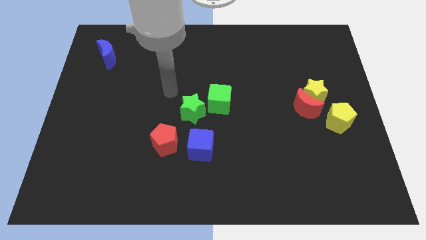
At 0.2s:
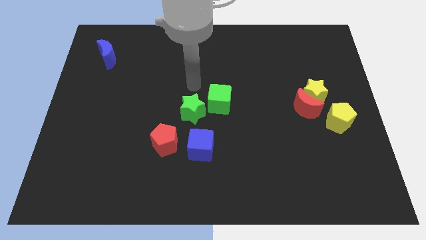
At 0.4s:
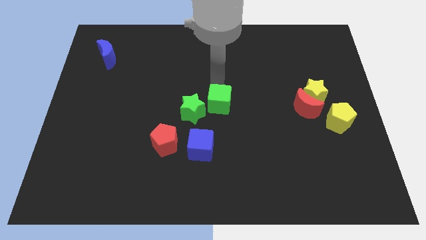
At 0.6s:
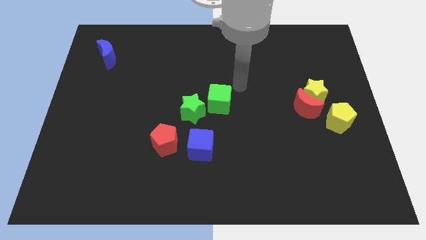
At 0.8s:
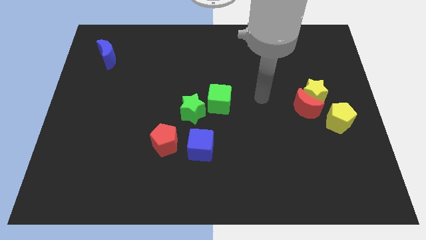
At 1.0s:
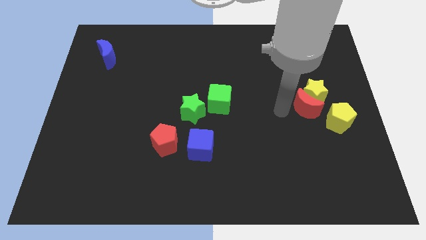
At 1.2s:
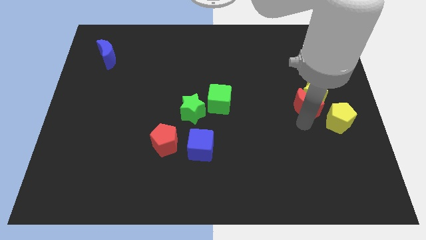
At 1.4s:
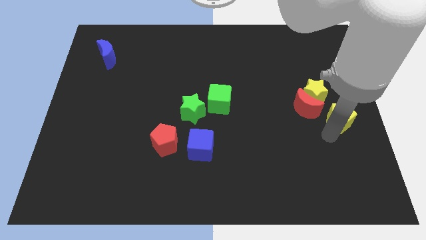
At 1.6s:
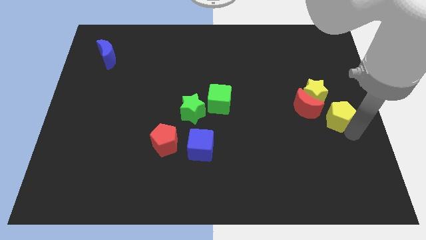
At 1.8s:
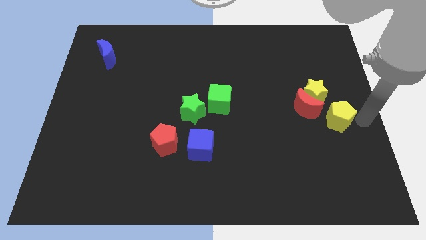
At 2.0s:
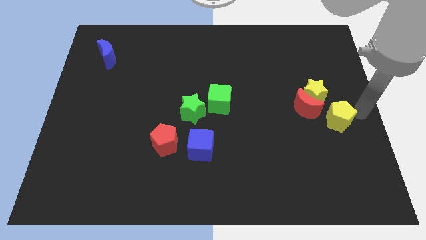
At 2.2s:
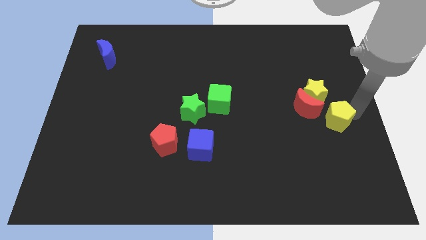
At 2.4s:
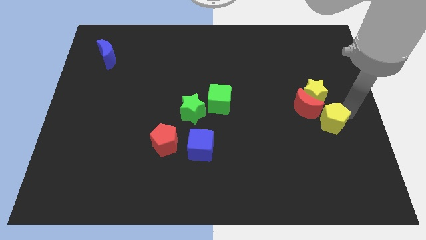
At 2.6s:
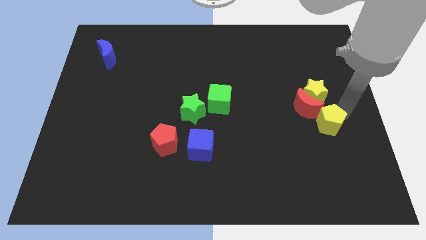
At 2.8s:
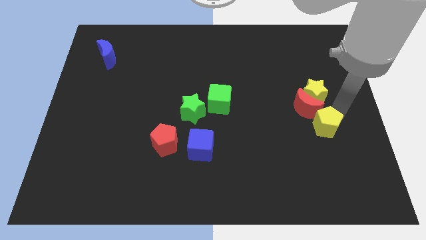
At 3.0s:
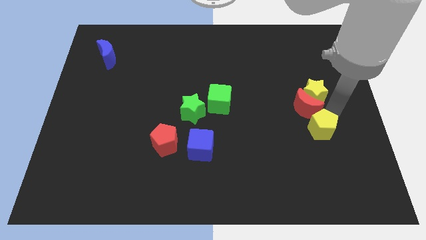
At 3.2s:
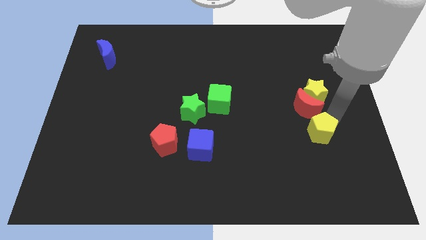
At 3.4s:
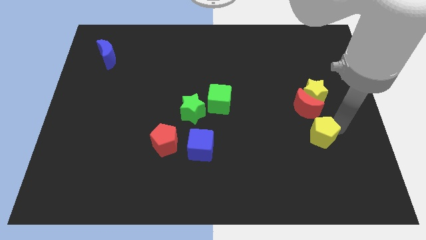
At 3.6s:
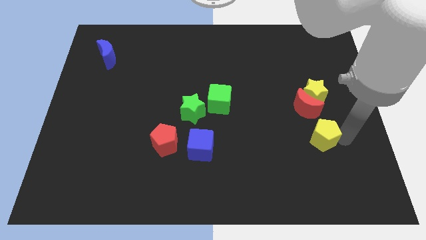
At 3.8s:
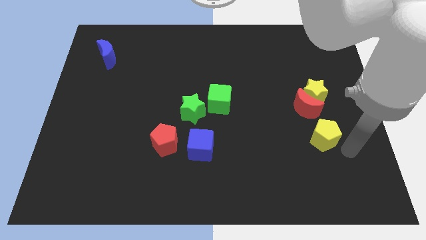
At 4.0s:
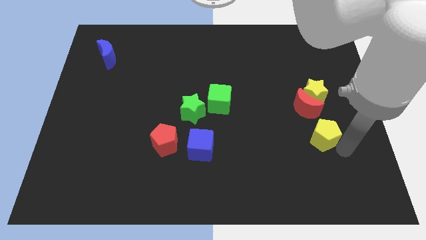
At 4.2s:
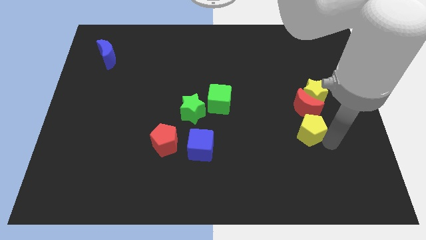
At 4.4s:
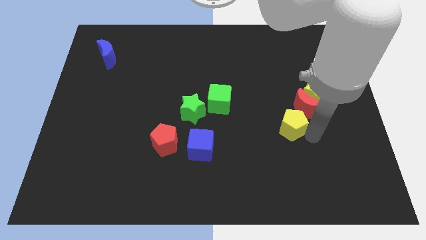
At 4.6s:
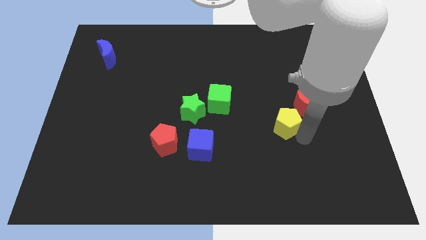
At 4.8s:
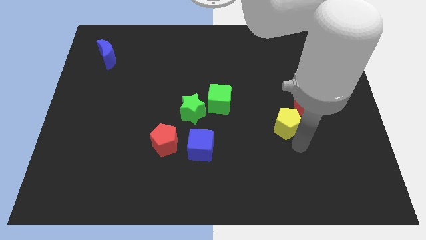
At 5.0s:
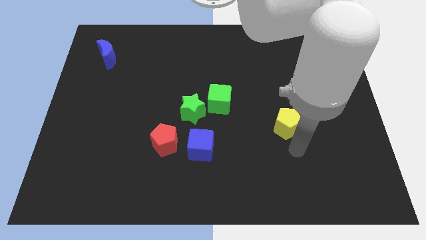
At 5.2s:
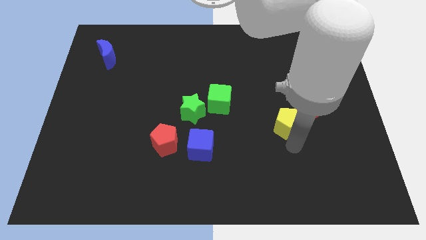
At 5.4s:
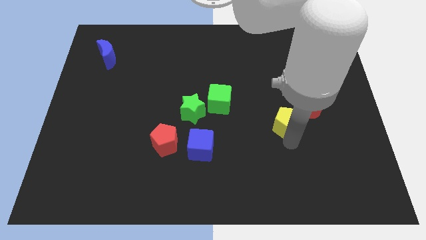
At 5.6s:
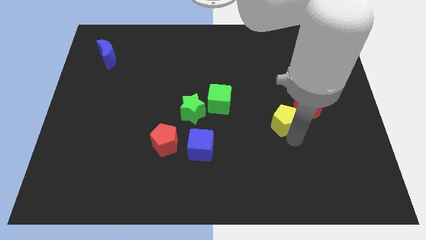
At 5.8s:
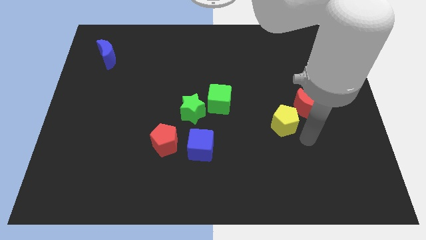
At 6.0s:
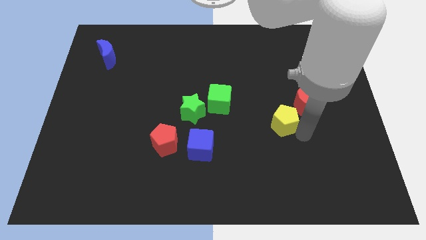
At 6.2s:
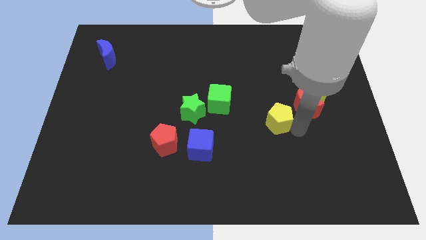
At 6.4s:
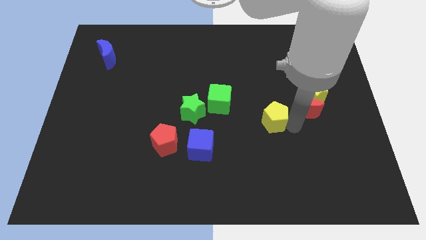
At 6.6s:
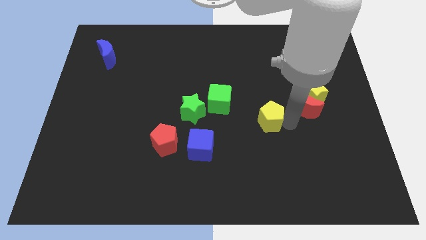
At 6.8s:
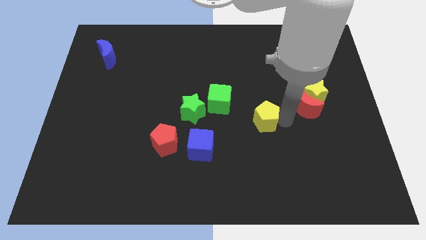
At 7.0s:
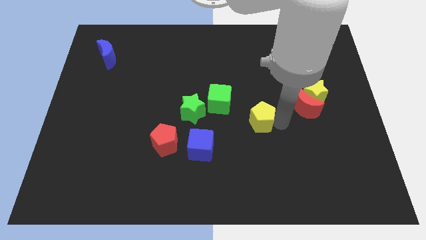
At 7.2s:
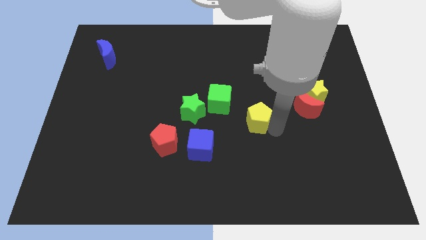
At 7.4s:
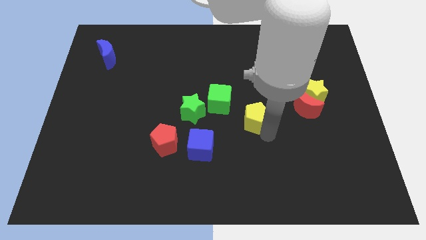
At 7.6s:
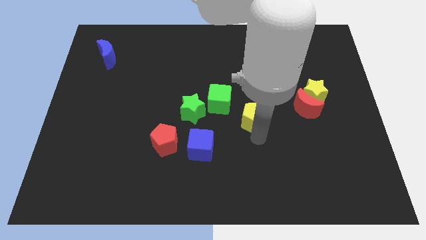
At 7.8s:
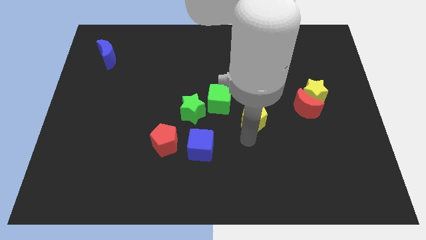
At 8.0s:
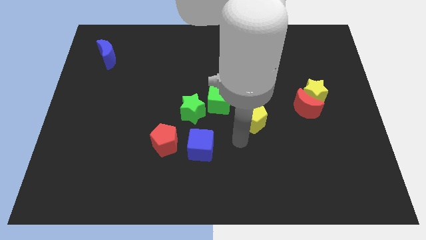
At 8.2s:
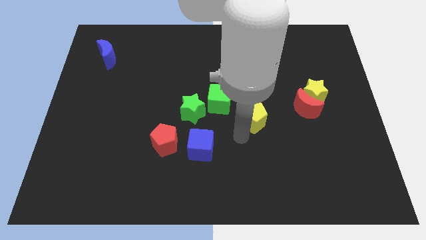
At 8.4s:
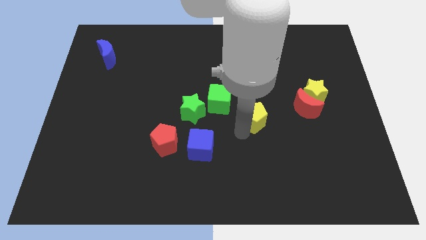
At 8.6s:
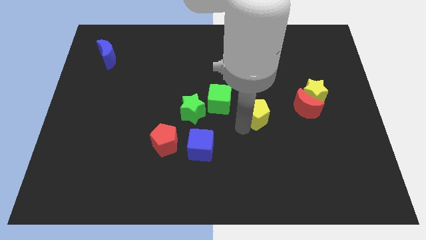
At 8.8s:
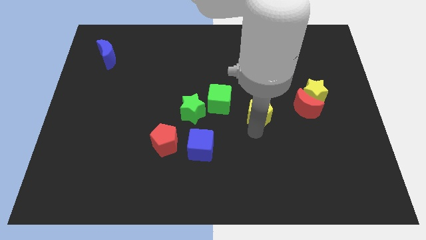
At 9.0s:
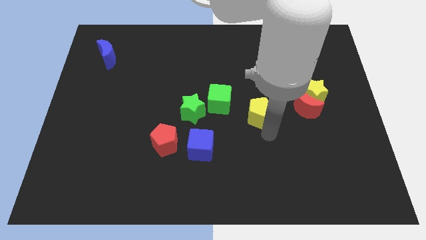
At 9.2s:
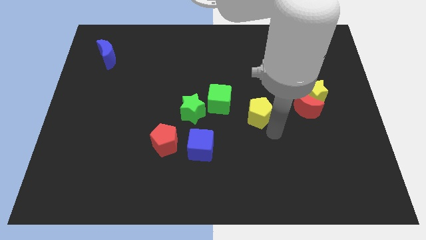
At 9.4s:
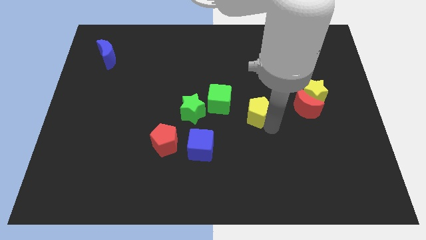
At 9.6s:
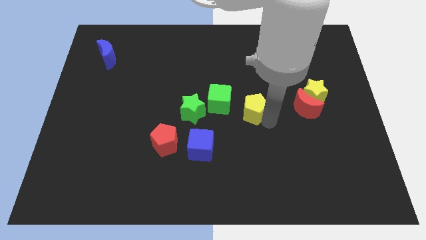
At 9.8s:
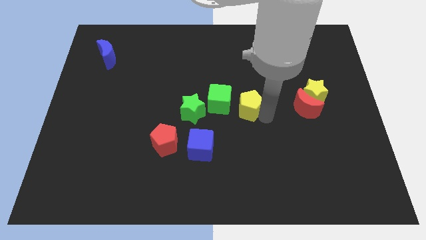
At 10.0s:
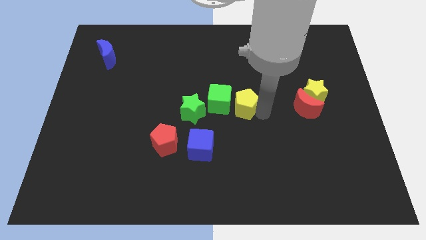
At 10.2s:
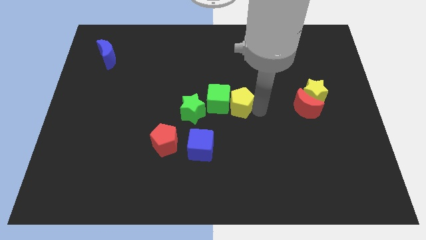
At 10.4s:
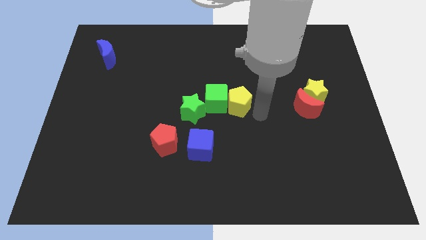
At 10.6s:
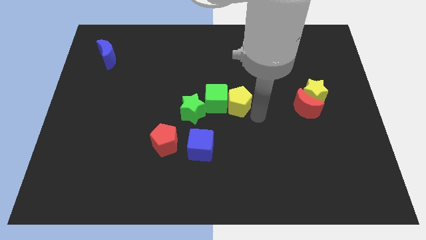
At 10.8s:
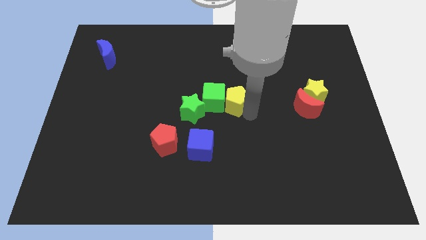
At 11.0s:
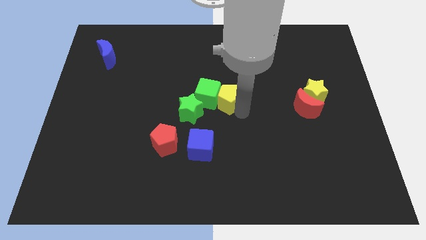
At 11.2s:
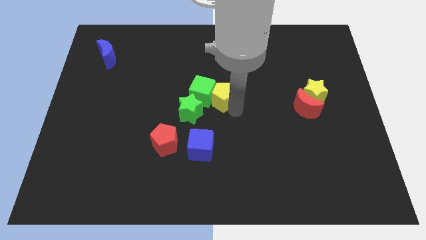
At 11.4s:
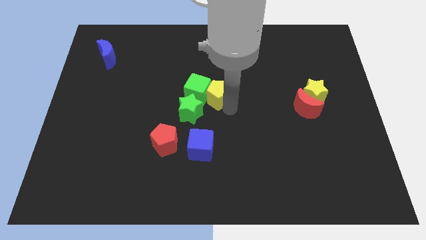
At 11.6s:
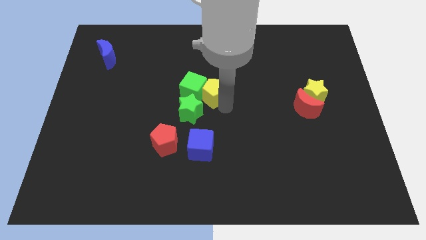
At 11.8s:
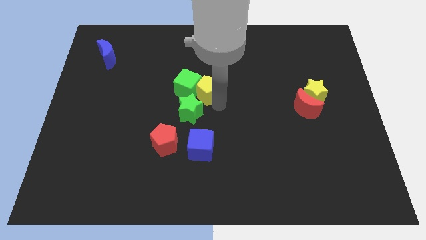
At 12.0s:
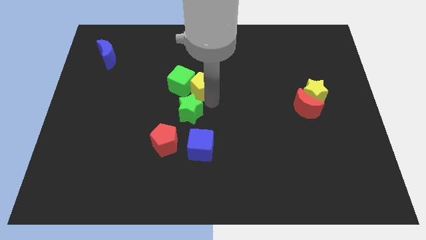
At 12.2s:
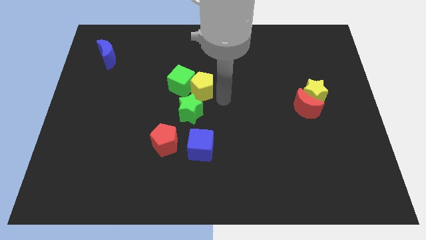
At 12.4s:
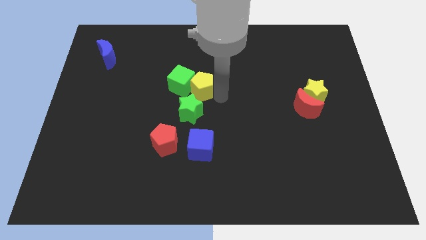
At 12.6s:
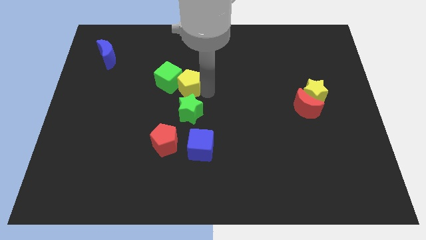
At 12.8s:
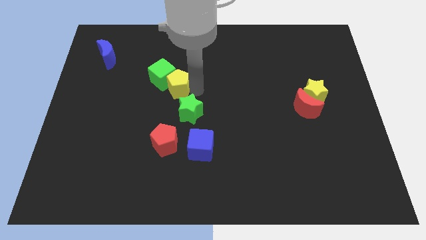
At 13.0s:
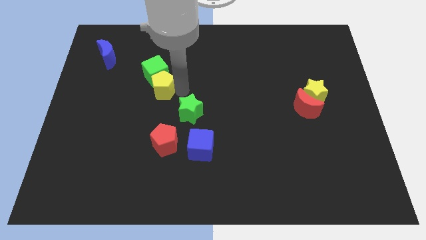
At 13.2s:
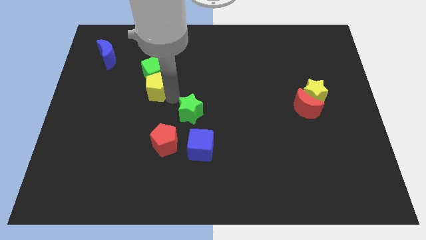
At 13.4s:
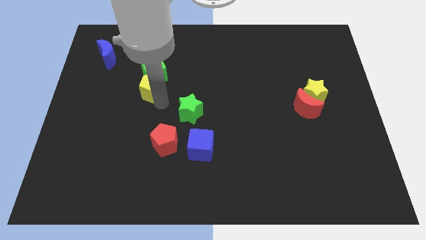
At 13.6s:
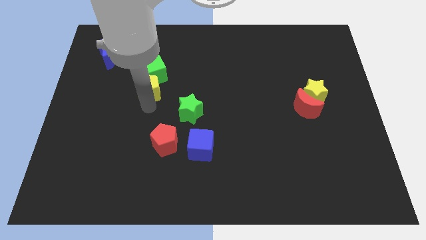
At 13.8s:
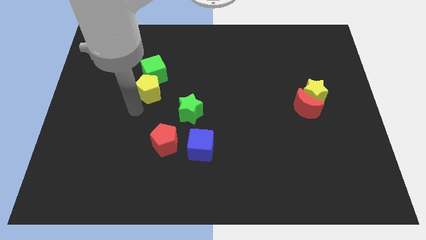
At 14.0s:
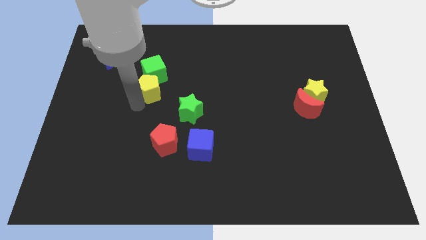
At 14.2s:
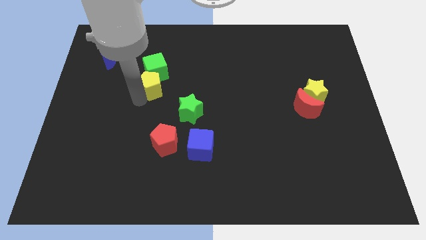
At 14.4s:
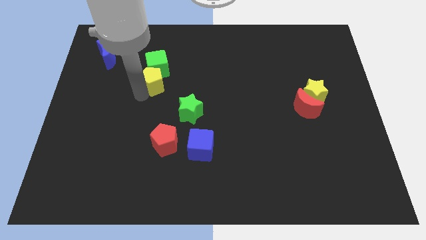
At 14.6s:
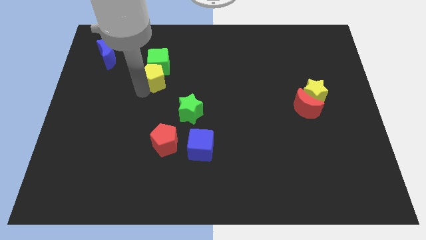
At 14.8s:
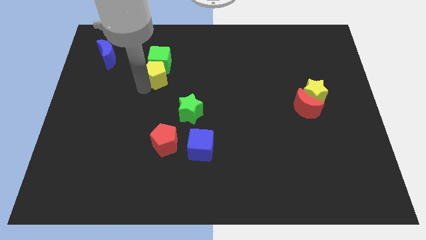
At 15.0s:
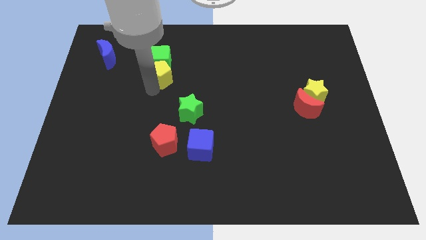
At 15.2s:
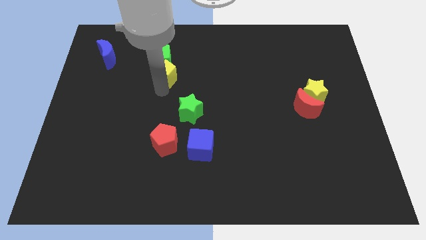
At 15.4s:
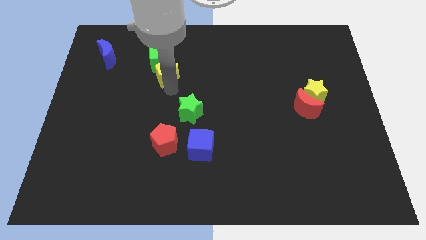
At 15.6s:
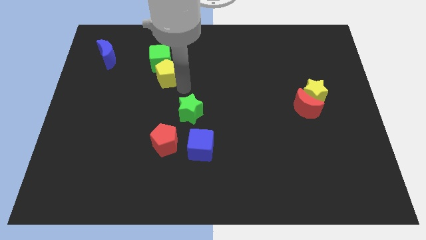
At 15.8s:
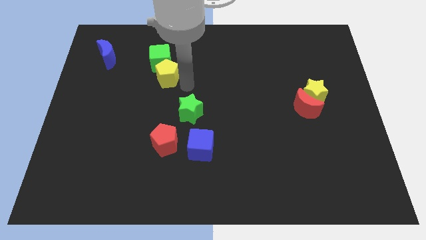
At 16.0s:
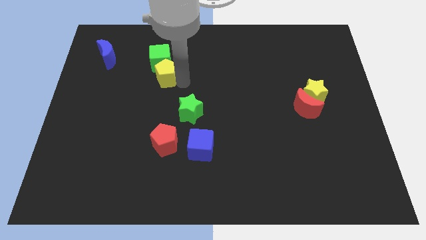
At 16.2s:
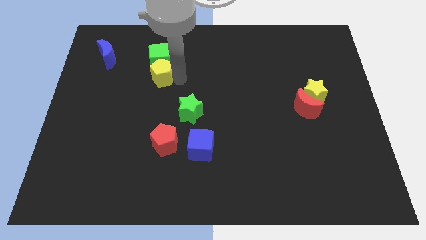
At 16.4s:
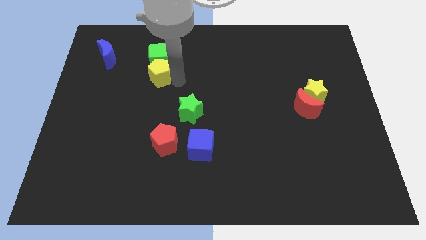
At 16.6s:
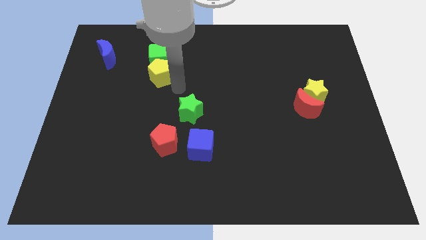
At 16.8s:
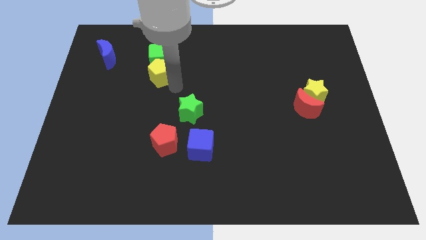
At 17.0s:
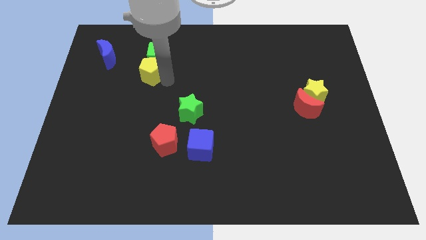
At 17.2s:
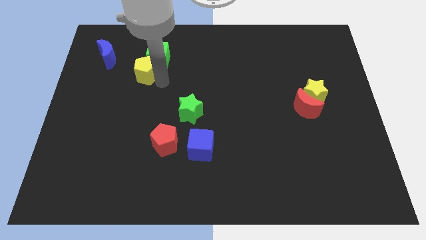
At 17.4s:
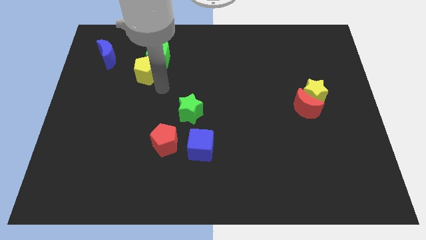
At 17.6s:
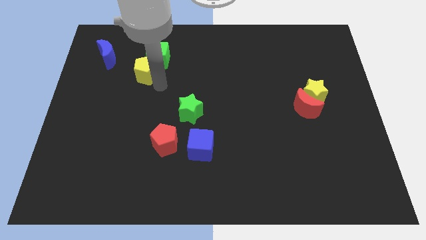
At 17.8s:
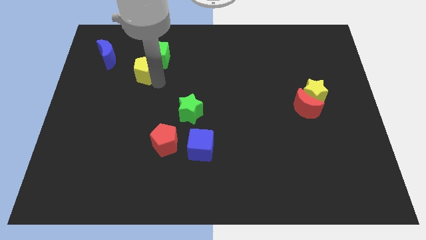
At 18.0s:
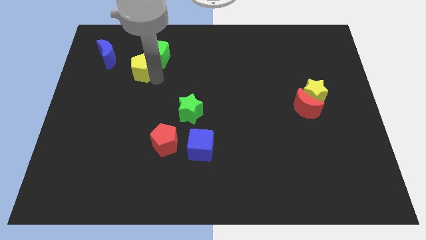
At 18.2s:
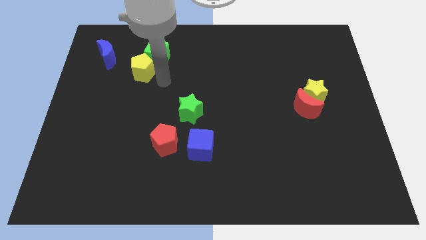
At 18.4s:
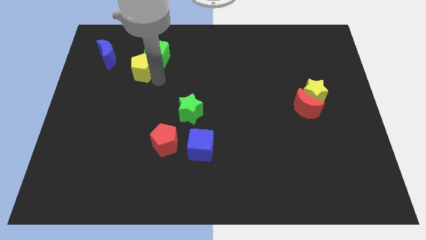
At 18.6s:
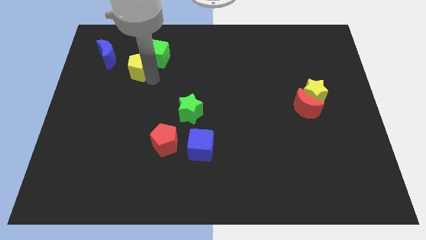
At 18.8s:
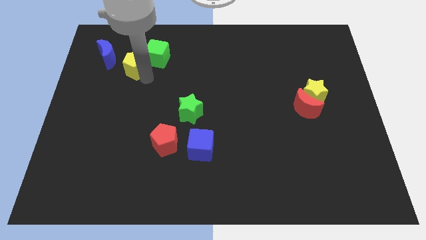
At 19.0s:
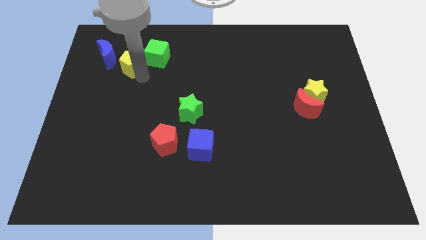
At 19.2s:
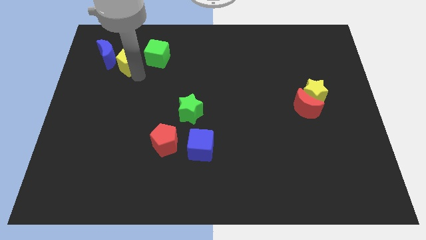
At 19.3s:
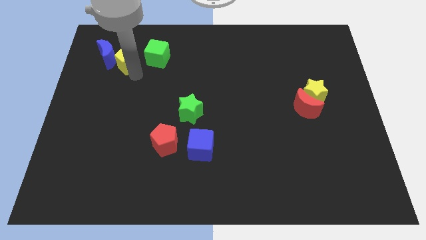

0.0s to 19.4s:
move the yellow pentagon next to the blue moon
